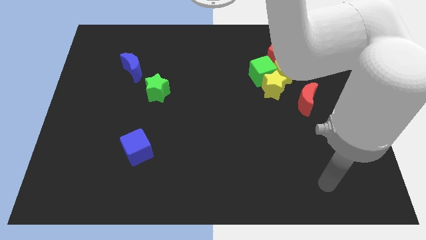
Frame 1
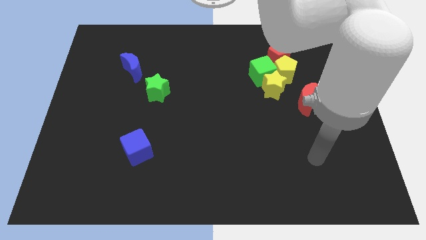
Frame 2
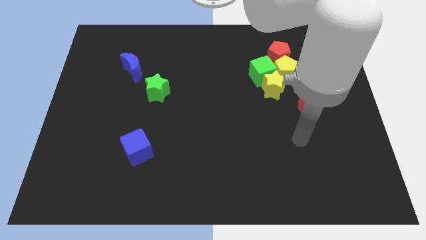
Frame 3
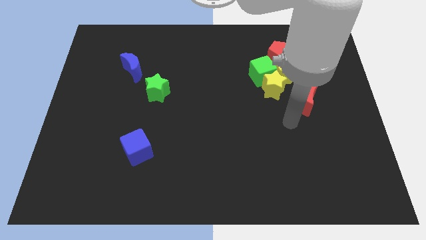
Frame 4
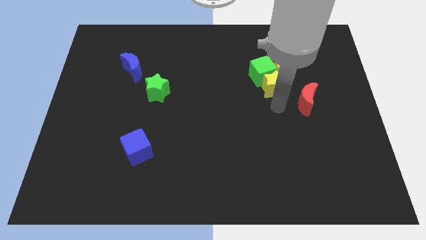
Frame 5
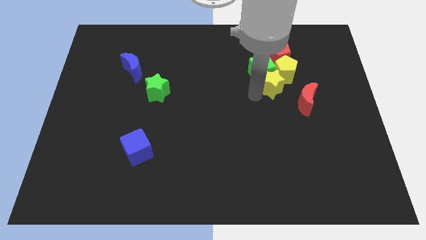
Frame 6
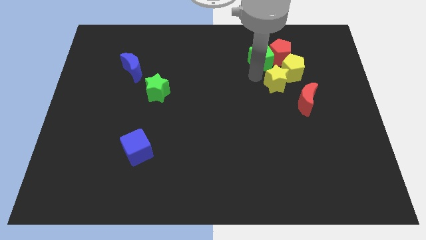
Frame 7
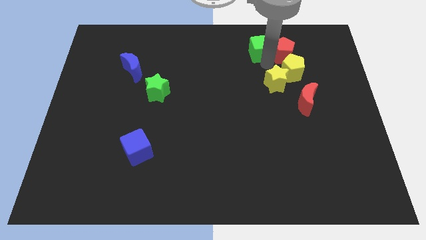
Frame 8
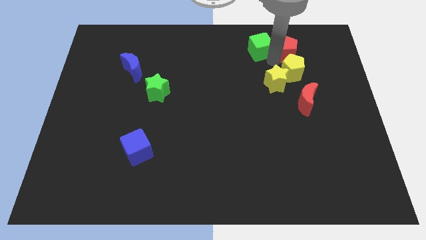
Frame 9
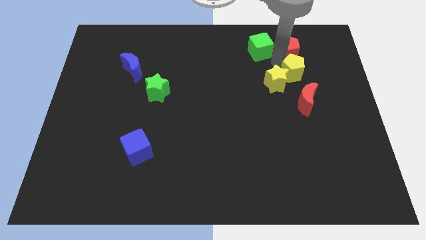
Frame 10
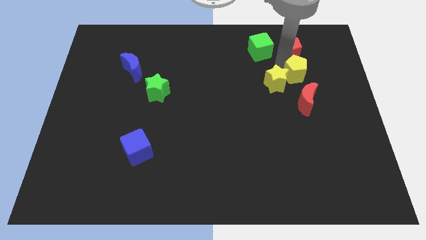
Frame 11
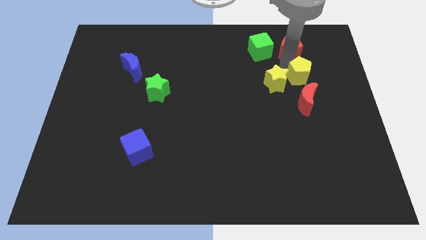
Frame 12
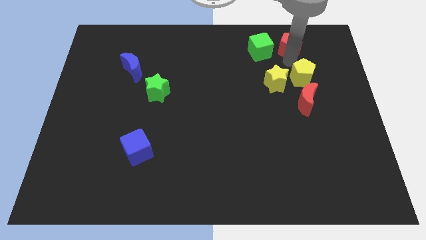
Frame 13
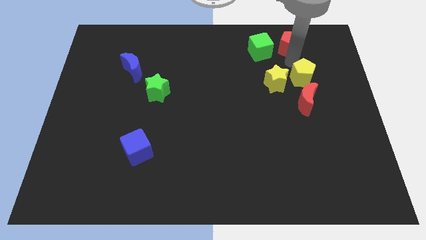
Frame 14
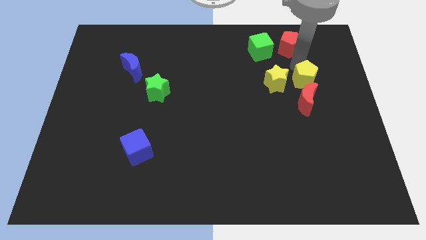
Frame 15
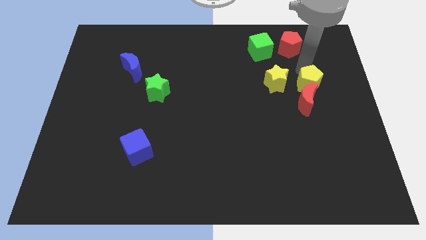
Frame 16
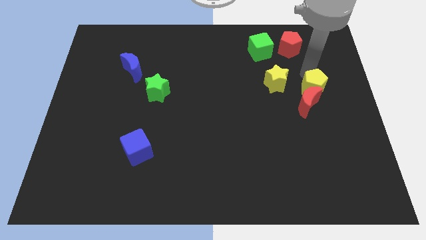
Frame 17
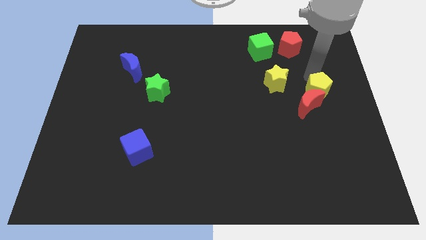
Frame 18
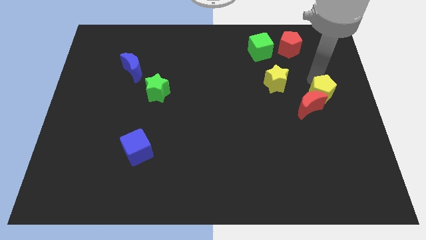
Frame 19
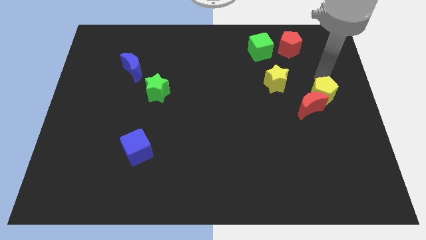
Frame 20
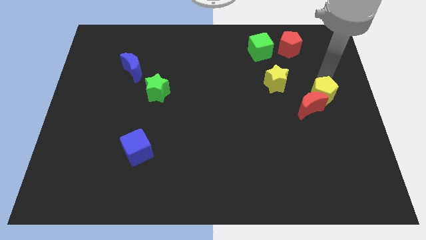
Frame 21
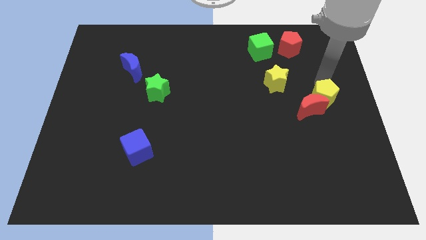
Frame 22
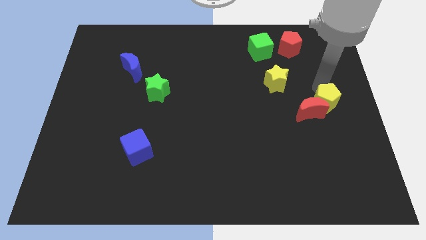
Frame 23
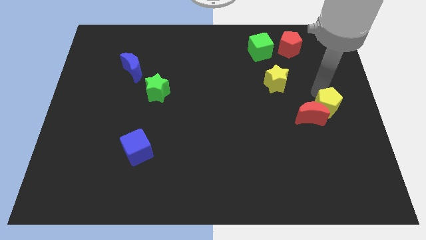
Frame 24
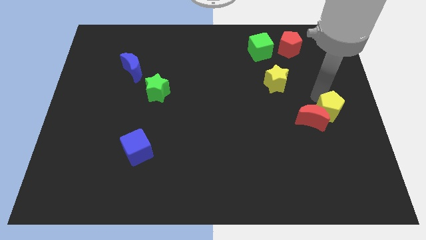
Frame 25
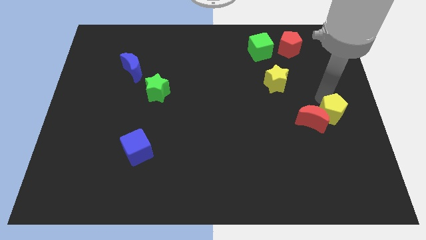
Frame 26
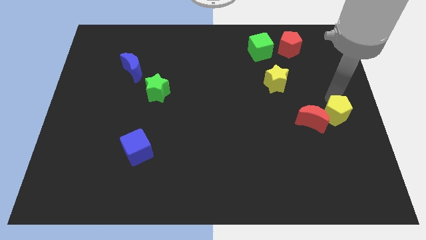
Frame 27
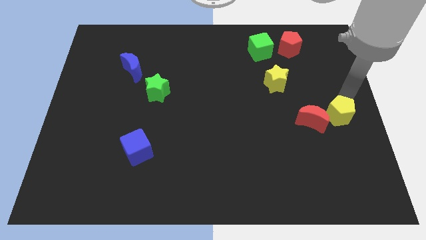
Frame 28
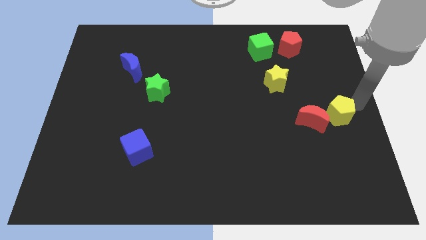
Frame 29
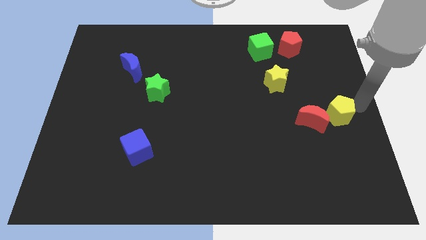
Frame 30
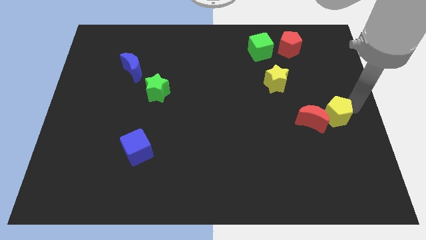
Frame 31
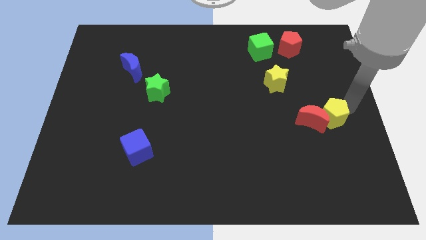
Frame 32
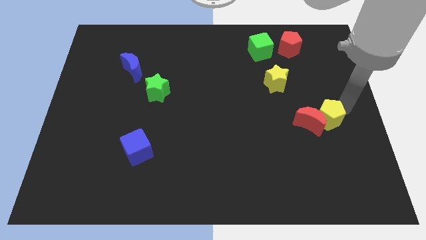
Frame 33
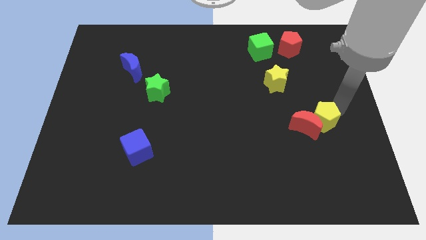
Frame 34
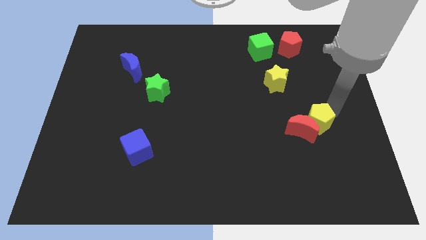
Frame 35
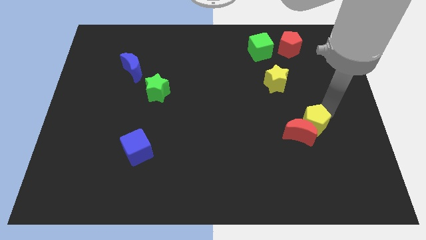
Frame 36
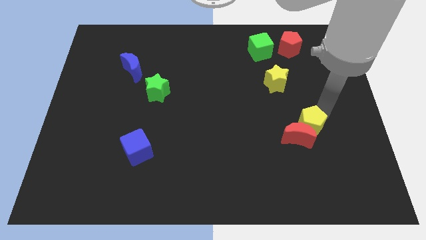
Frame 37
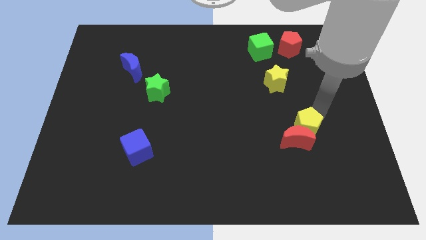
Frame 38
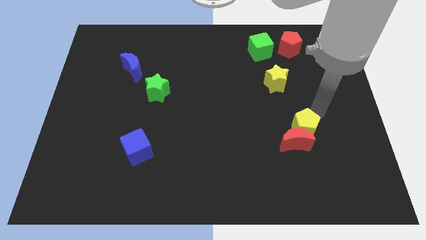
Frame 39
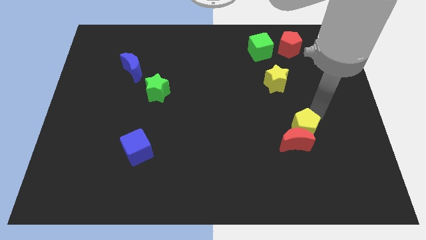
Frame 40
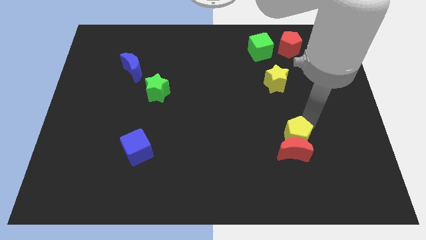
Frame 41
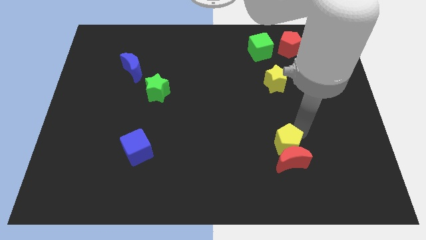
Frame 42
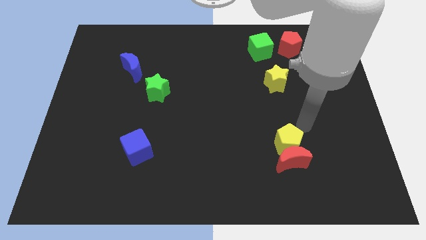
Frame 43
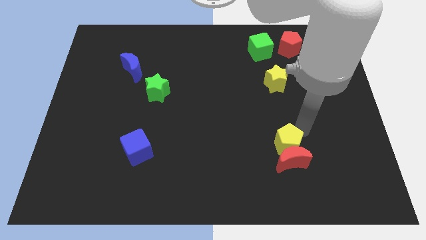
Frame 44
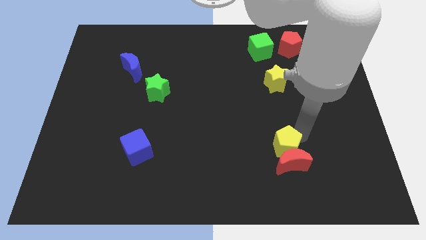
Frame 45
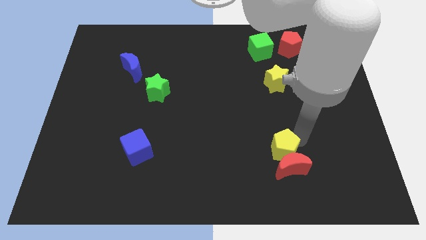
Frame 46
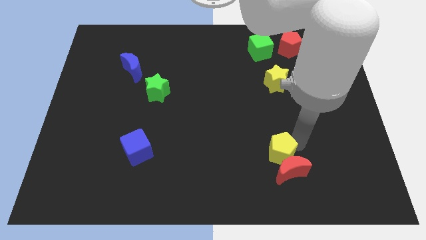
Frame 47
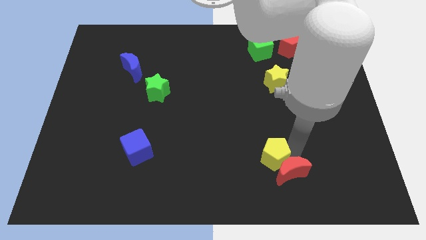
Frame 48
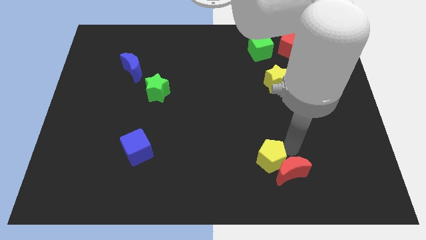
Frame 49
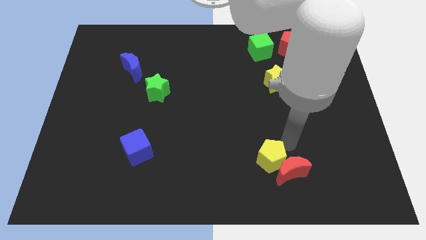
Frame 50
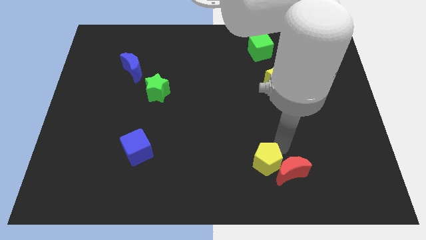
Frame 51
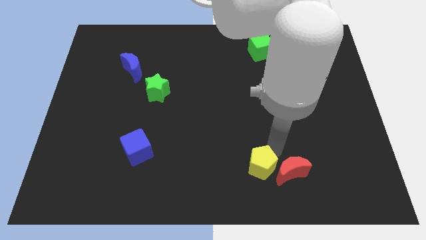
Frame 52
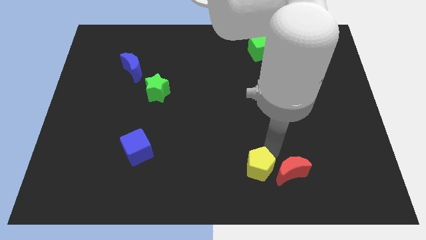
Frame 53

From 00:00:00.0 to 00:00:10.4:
move the yellow pentagon to the bottom

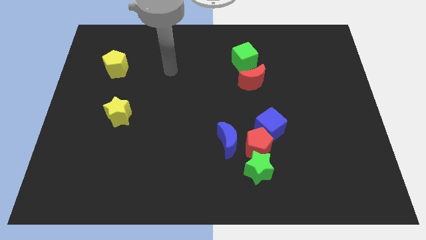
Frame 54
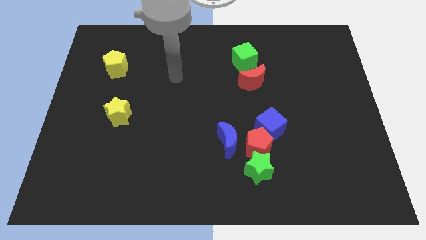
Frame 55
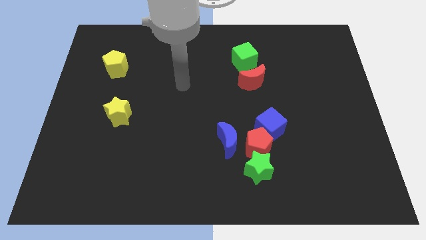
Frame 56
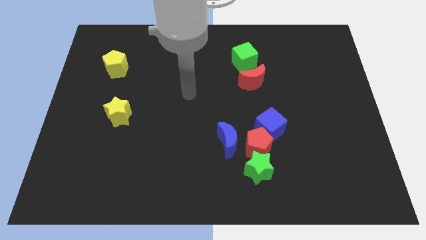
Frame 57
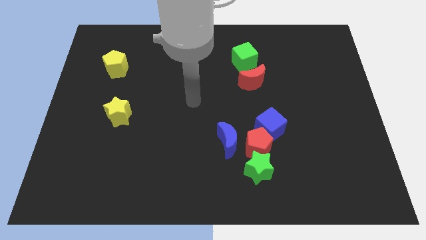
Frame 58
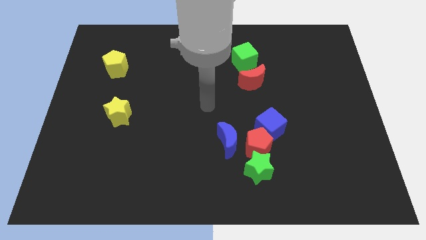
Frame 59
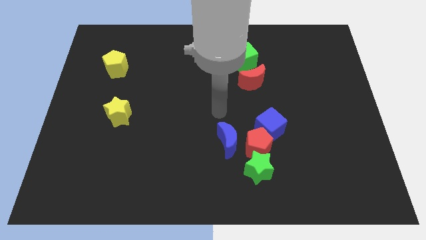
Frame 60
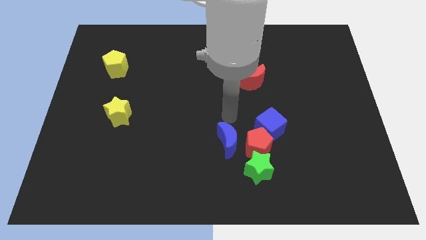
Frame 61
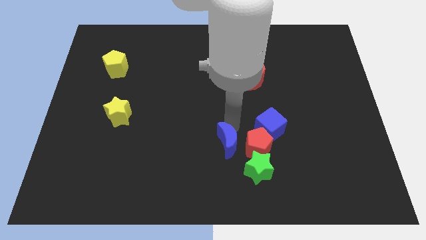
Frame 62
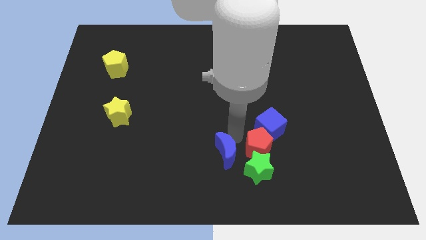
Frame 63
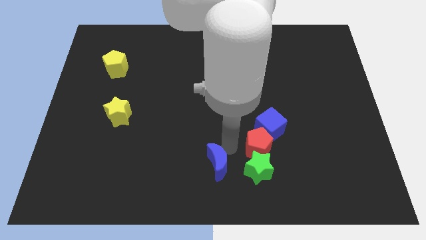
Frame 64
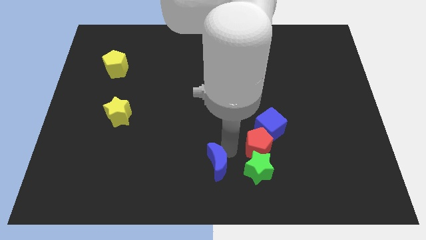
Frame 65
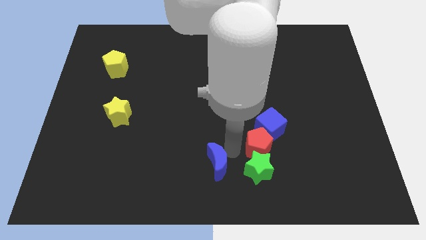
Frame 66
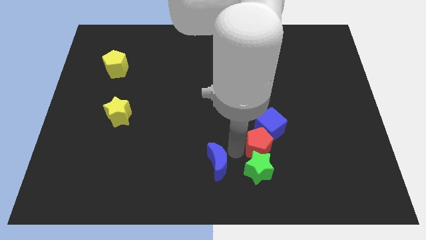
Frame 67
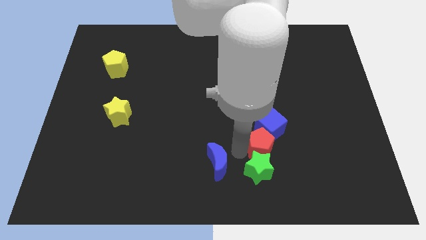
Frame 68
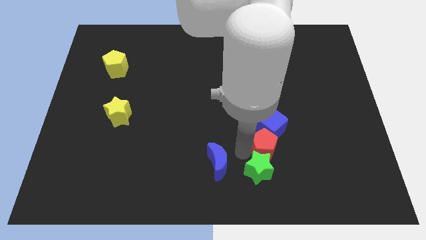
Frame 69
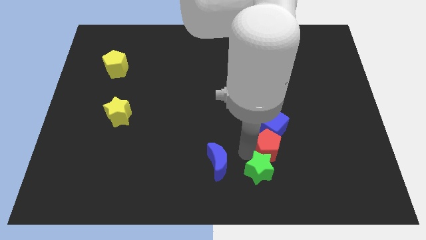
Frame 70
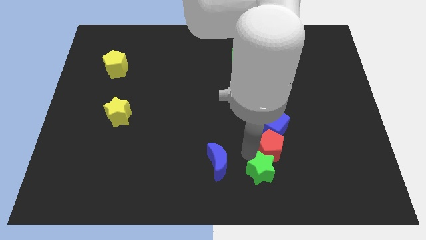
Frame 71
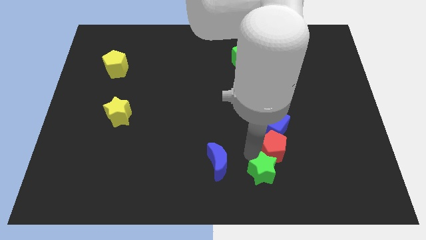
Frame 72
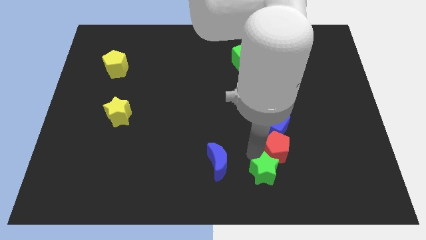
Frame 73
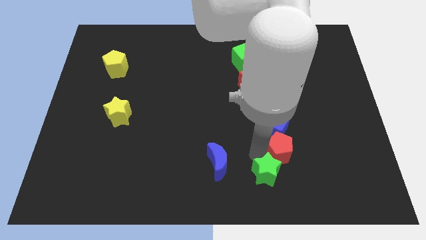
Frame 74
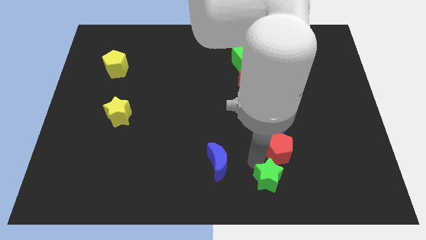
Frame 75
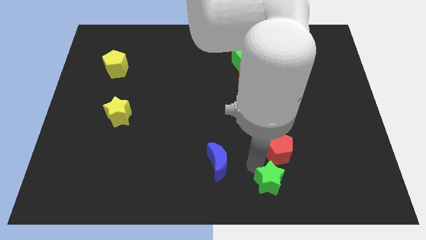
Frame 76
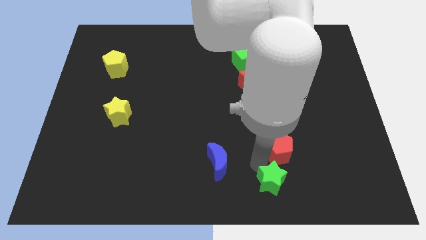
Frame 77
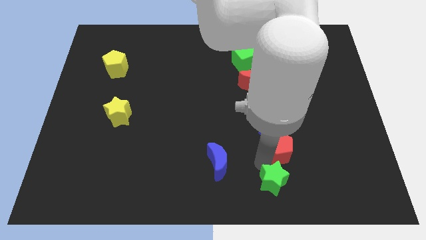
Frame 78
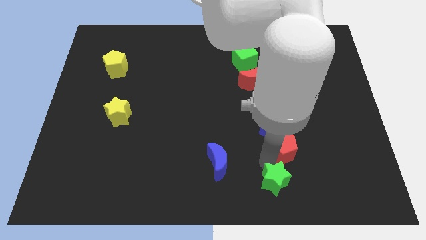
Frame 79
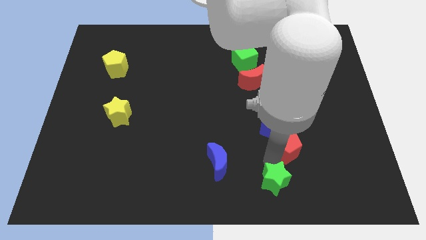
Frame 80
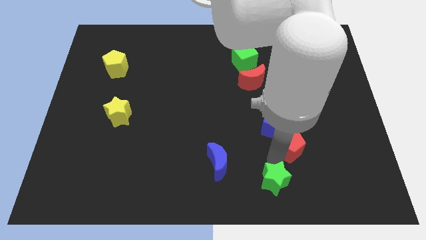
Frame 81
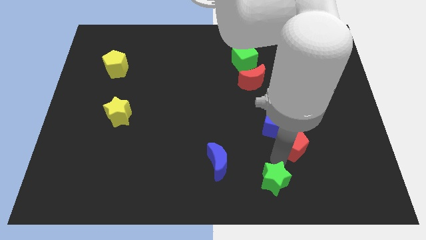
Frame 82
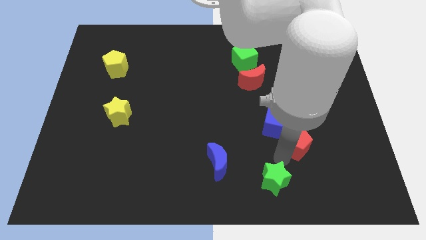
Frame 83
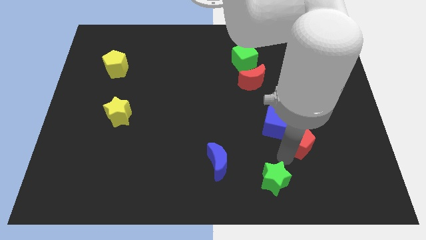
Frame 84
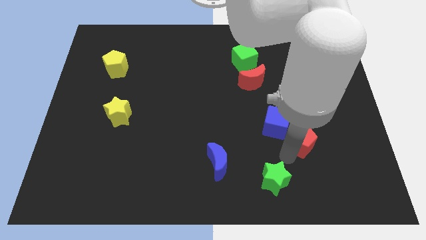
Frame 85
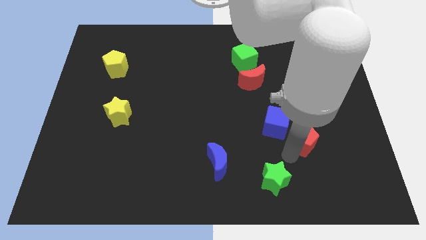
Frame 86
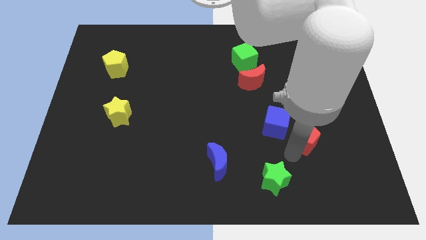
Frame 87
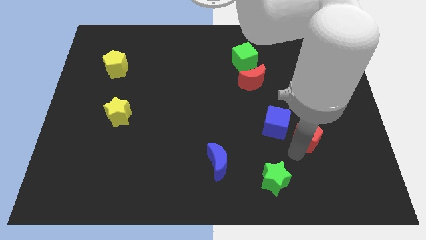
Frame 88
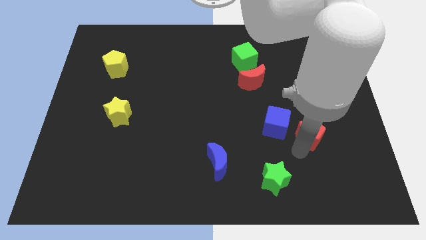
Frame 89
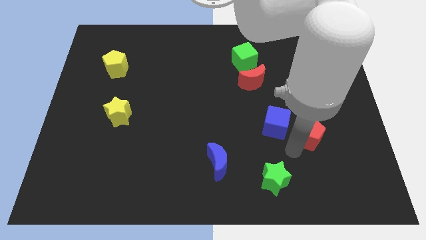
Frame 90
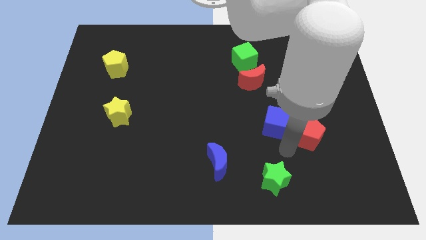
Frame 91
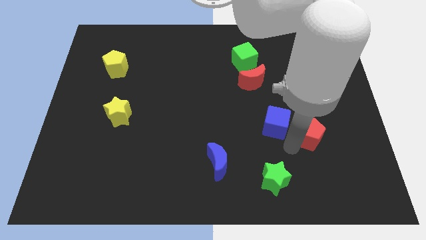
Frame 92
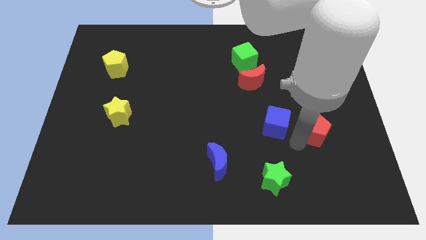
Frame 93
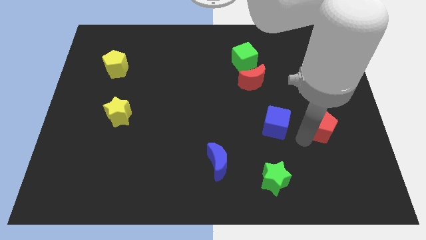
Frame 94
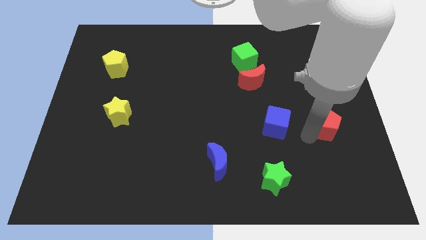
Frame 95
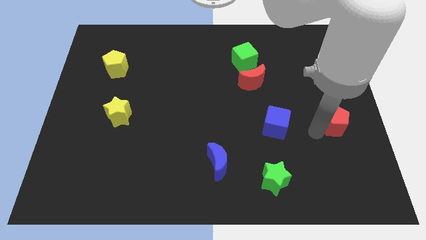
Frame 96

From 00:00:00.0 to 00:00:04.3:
put the red pentagon to the right side of the board
